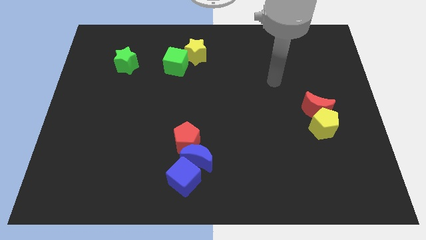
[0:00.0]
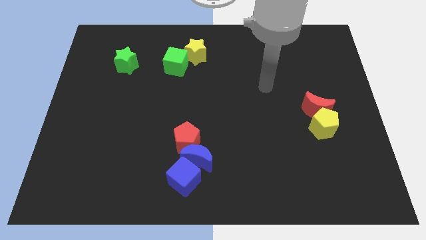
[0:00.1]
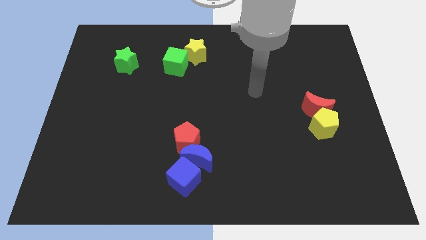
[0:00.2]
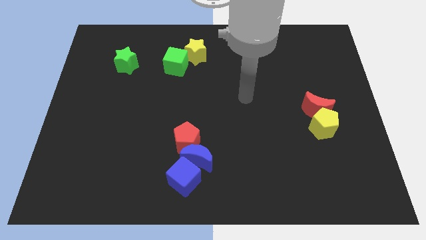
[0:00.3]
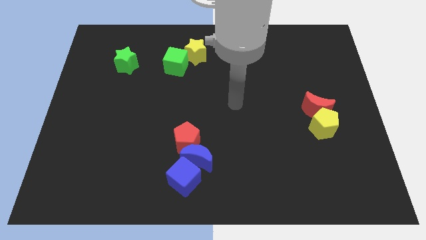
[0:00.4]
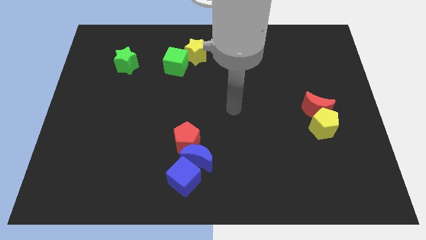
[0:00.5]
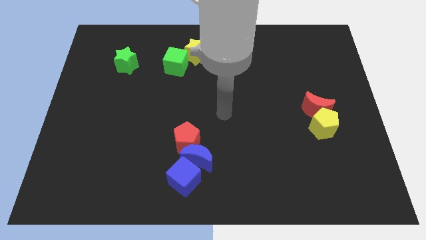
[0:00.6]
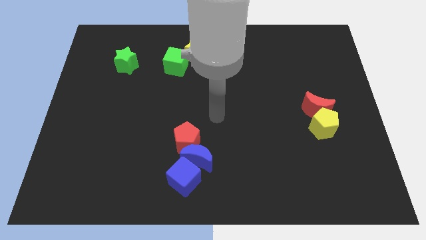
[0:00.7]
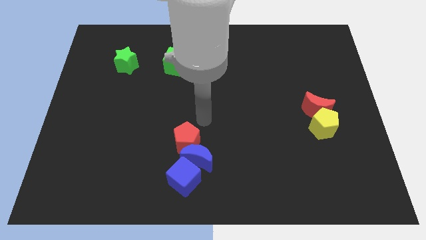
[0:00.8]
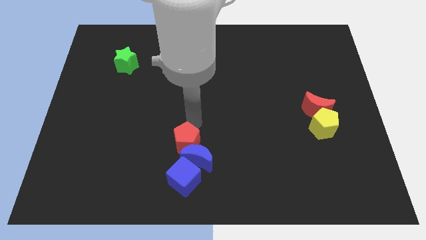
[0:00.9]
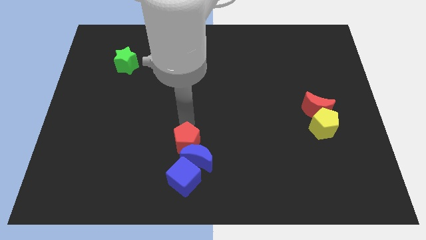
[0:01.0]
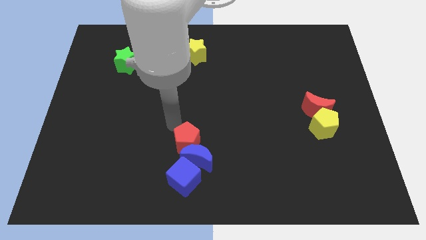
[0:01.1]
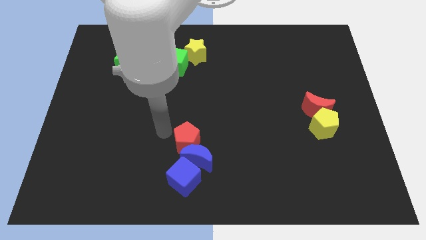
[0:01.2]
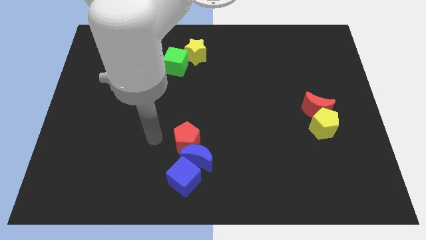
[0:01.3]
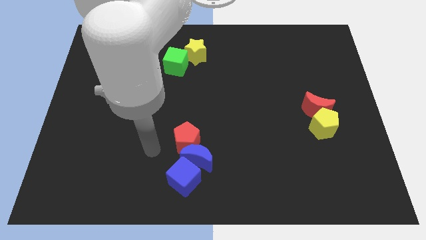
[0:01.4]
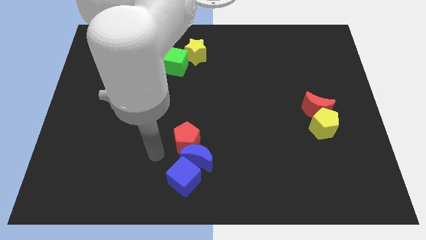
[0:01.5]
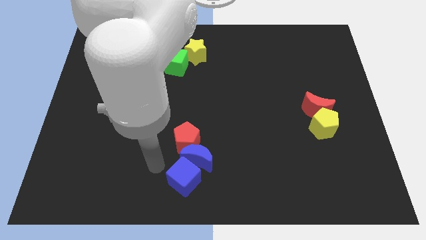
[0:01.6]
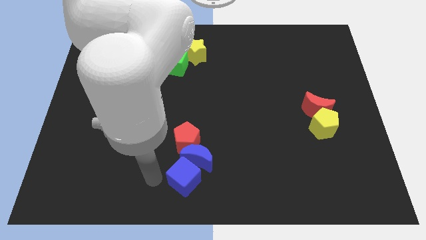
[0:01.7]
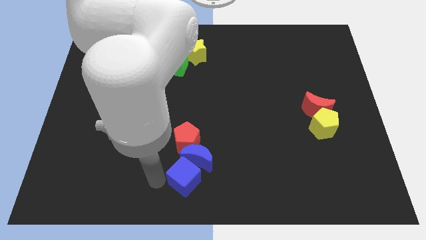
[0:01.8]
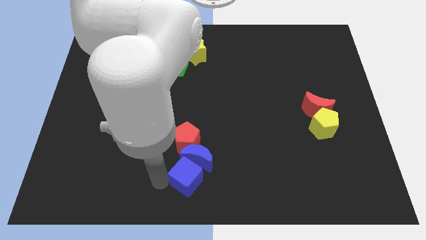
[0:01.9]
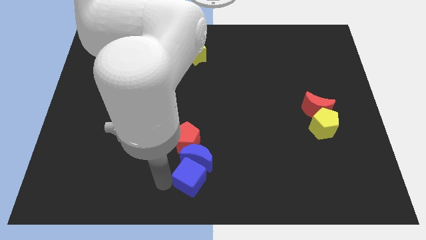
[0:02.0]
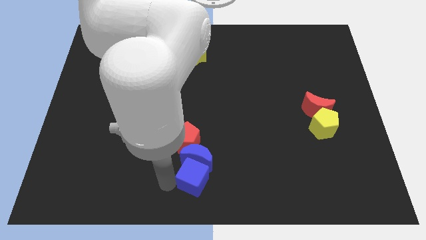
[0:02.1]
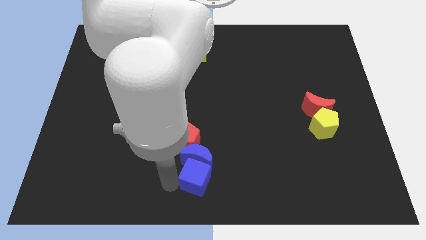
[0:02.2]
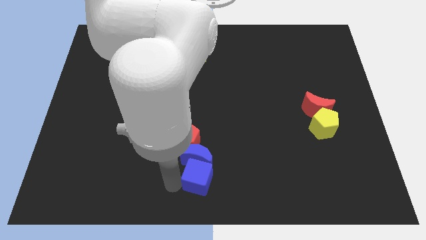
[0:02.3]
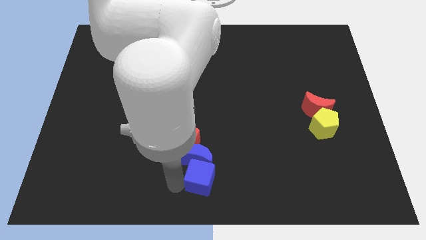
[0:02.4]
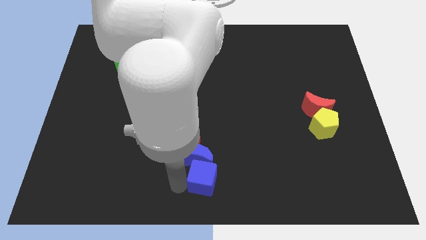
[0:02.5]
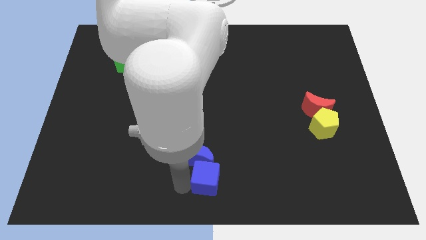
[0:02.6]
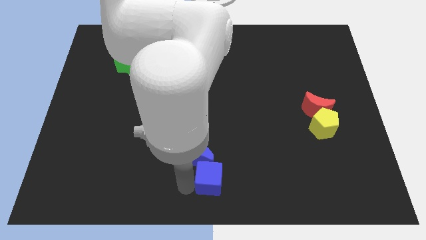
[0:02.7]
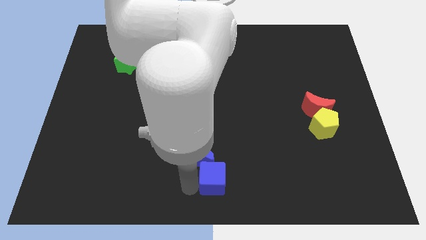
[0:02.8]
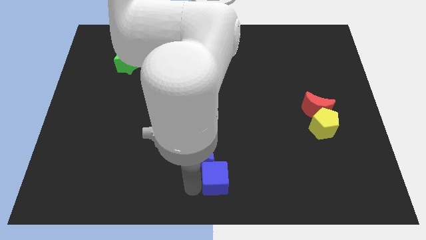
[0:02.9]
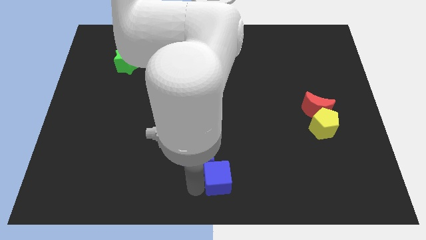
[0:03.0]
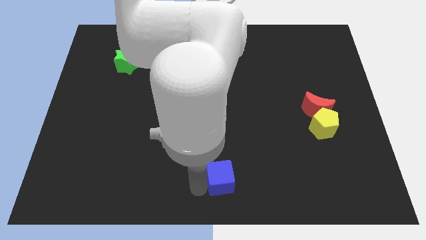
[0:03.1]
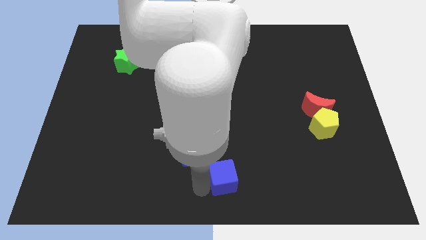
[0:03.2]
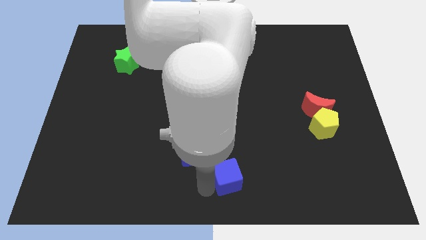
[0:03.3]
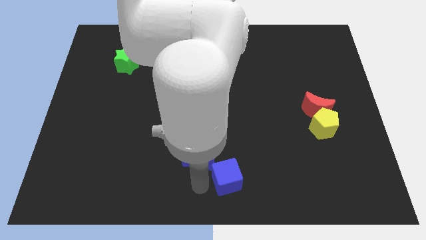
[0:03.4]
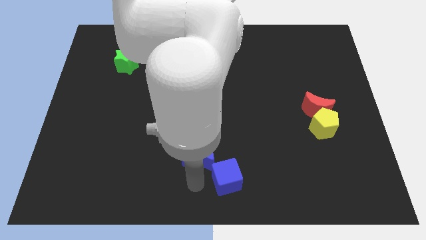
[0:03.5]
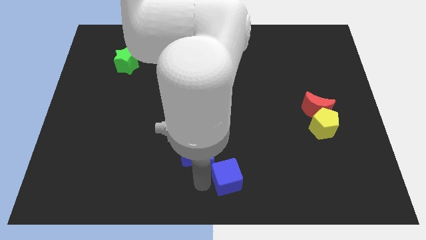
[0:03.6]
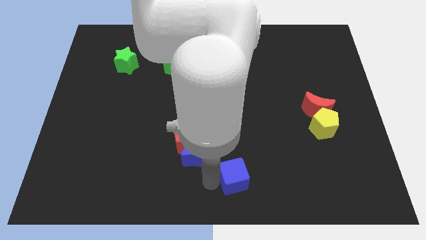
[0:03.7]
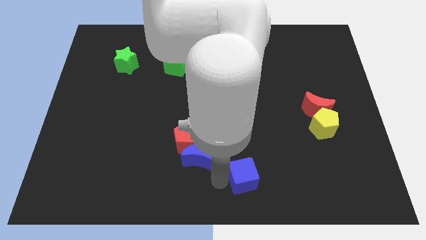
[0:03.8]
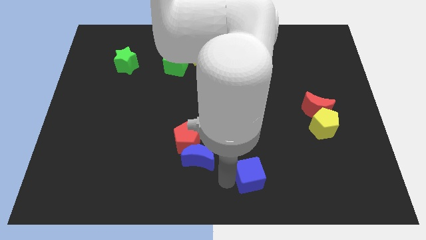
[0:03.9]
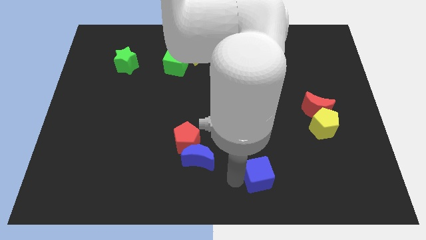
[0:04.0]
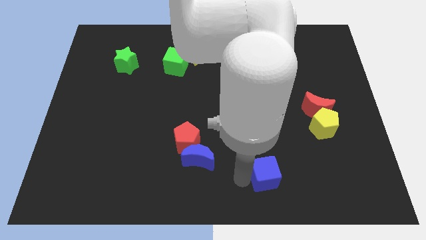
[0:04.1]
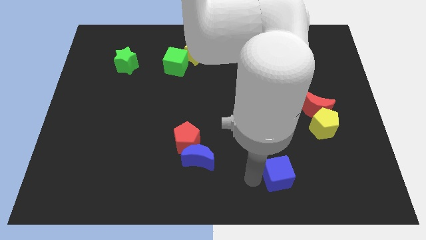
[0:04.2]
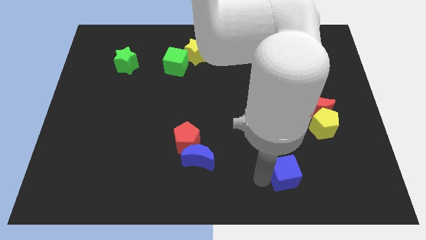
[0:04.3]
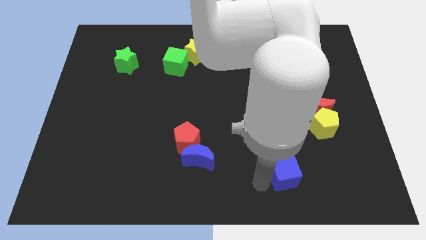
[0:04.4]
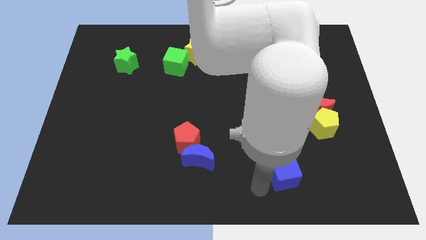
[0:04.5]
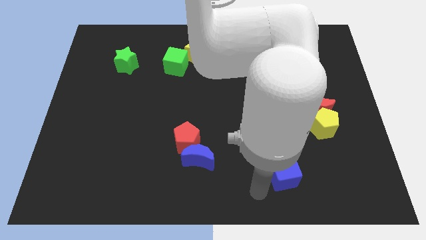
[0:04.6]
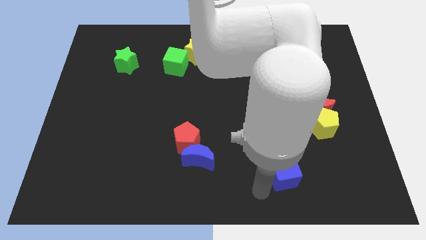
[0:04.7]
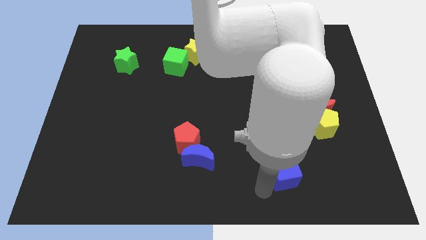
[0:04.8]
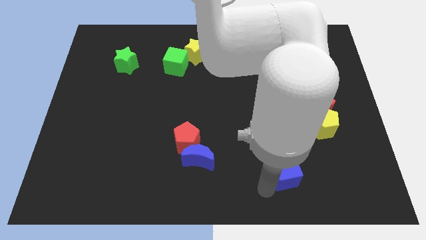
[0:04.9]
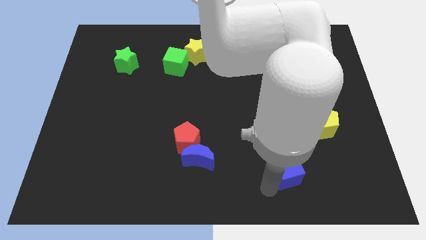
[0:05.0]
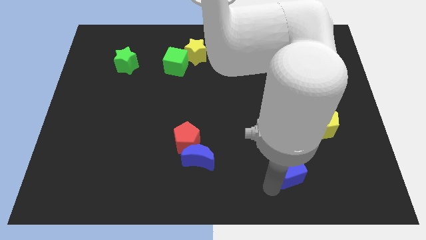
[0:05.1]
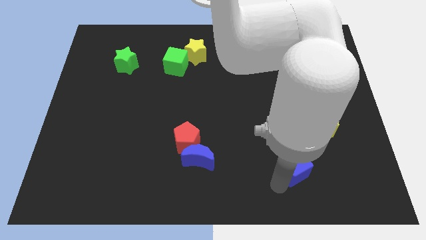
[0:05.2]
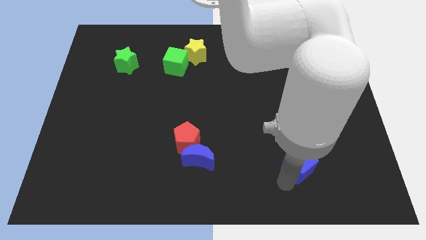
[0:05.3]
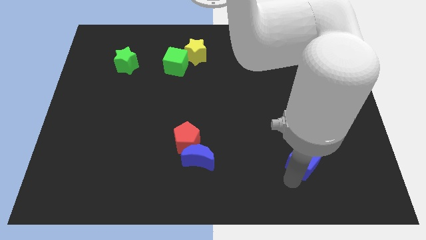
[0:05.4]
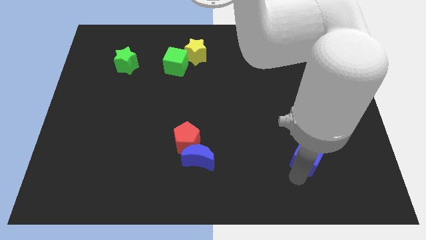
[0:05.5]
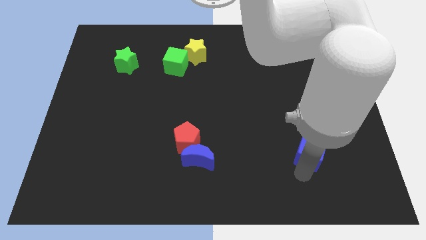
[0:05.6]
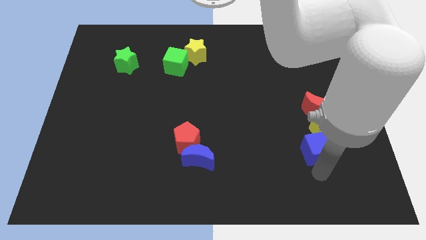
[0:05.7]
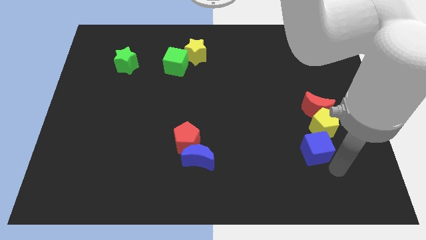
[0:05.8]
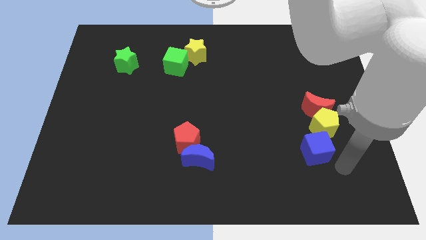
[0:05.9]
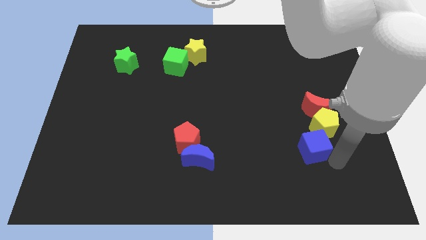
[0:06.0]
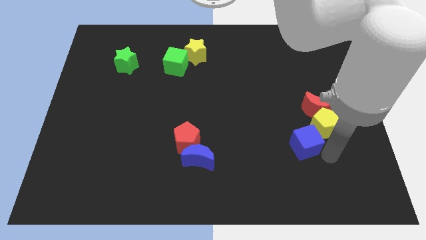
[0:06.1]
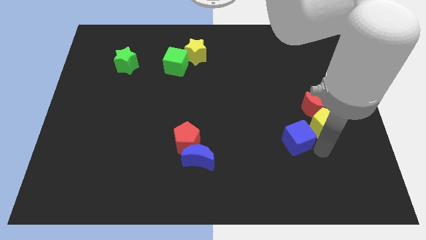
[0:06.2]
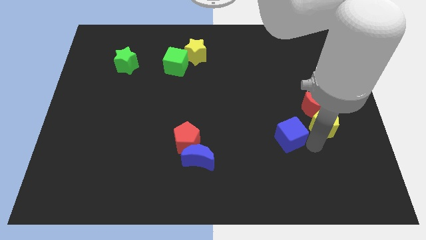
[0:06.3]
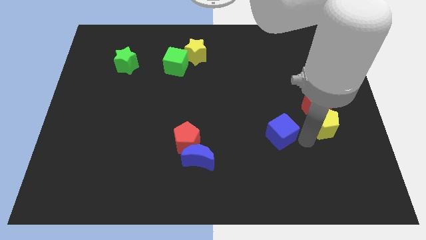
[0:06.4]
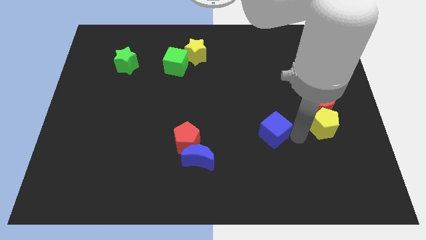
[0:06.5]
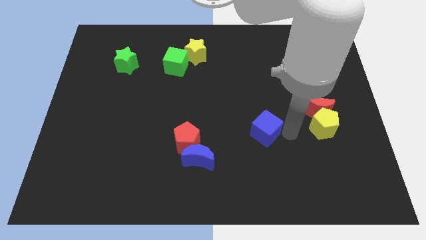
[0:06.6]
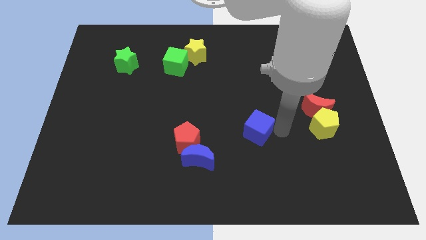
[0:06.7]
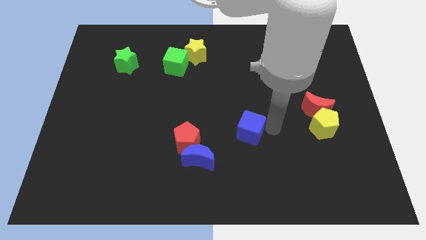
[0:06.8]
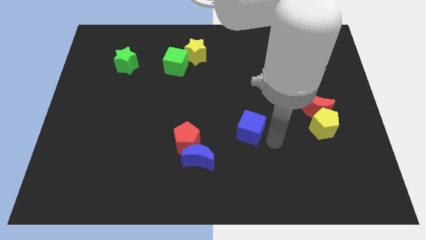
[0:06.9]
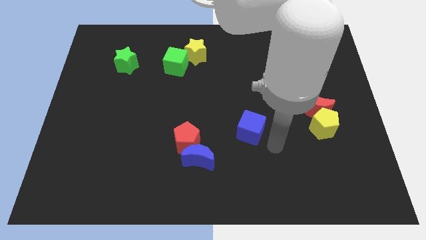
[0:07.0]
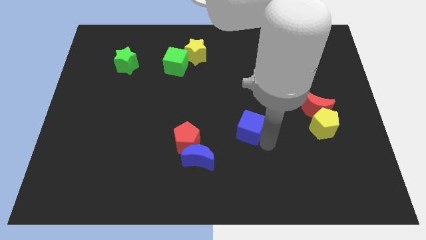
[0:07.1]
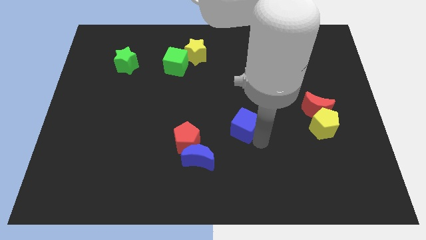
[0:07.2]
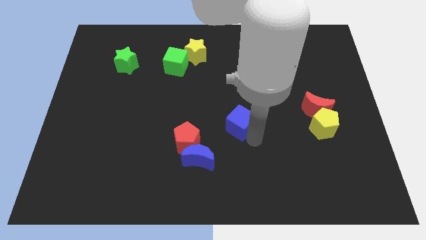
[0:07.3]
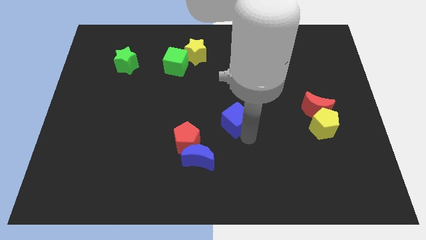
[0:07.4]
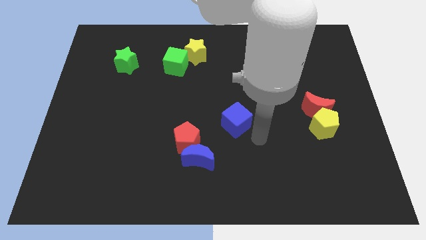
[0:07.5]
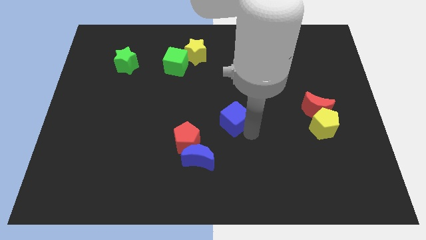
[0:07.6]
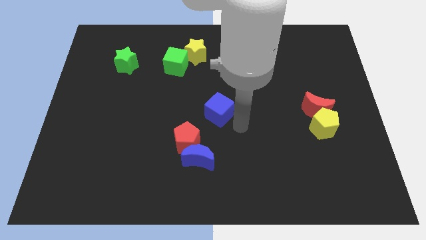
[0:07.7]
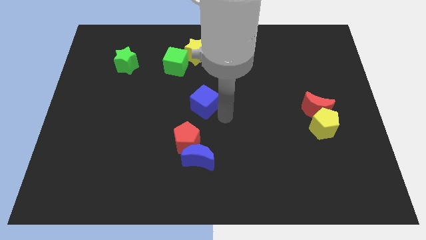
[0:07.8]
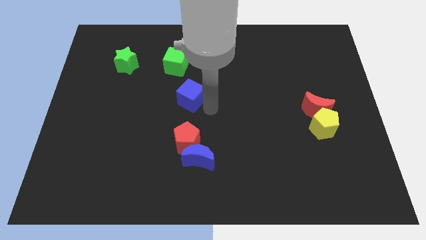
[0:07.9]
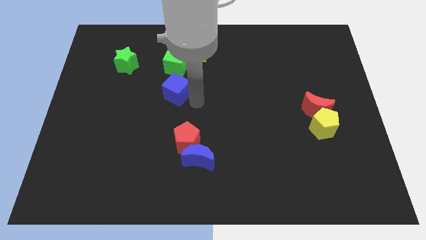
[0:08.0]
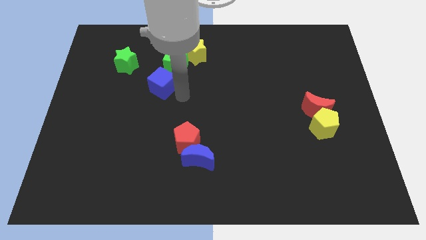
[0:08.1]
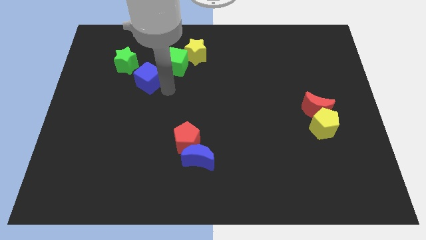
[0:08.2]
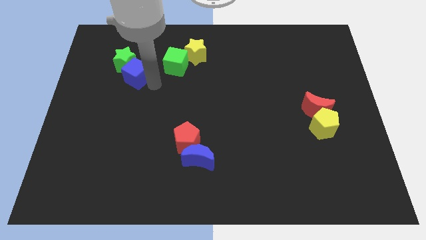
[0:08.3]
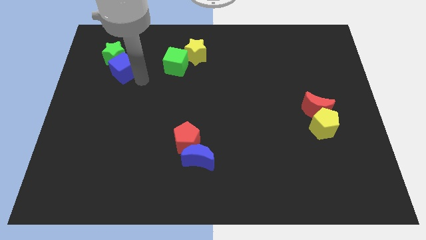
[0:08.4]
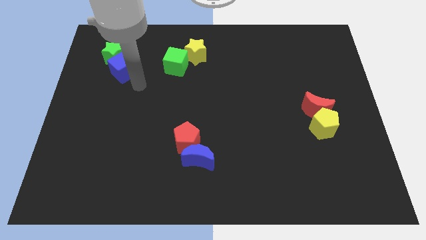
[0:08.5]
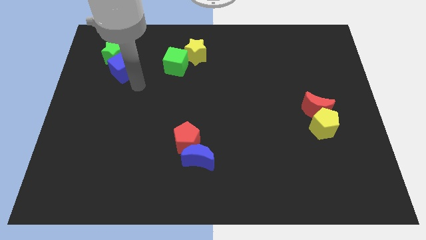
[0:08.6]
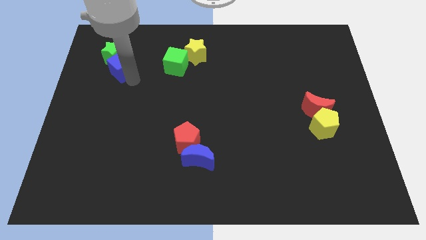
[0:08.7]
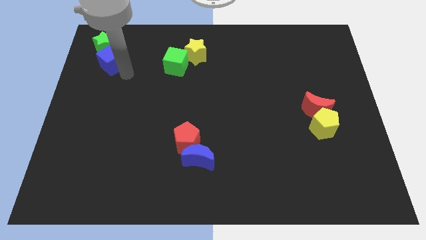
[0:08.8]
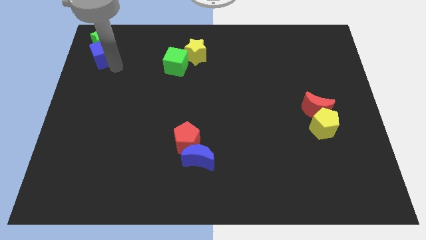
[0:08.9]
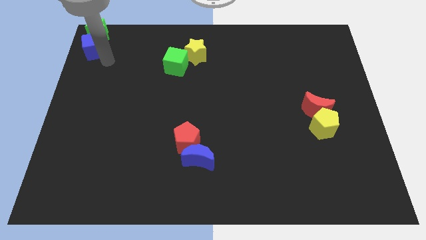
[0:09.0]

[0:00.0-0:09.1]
push the blue cube to the top left corner
